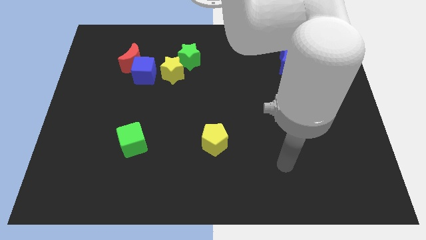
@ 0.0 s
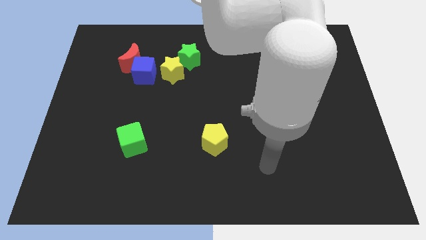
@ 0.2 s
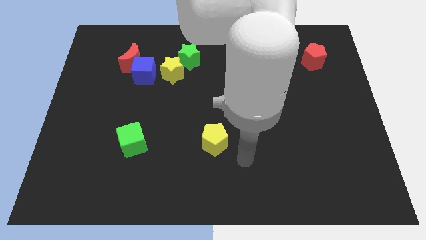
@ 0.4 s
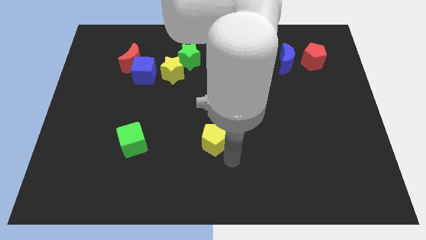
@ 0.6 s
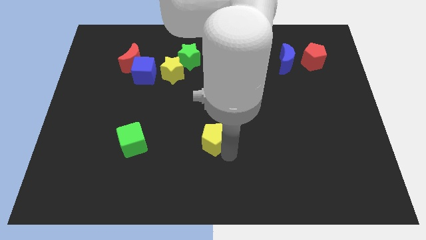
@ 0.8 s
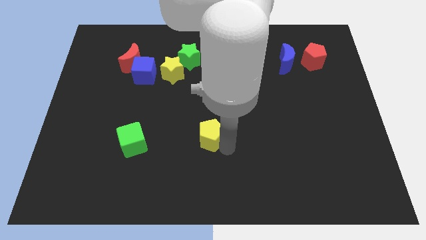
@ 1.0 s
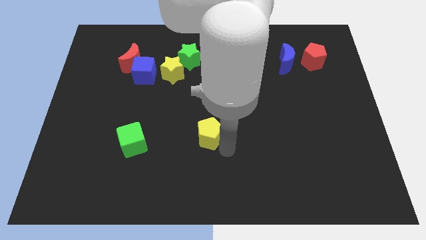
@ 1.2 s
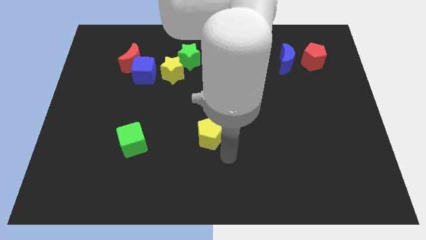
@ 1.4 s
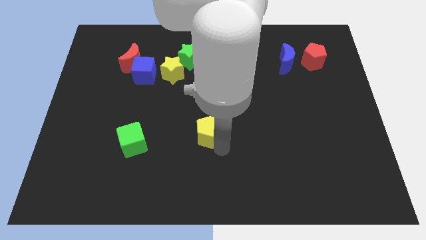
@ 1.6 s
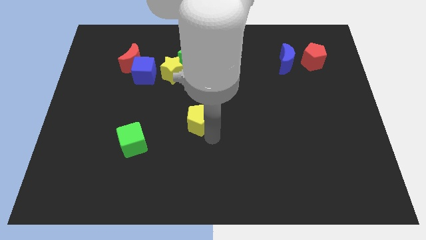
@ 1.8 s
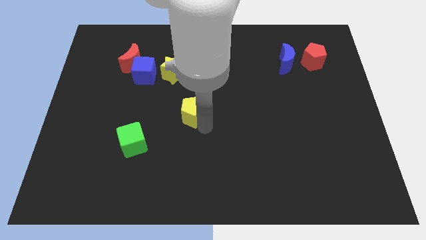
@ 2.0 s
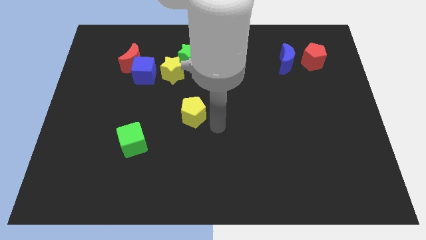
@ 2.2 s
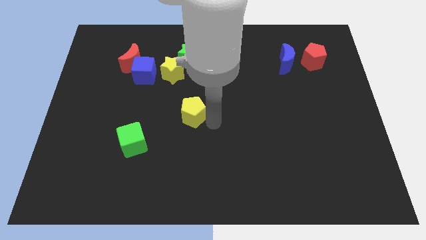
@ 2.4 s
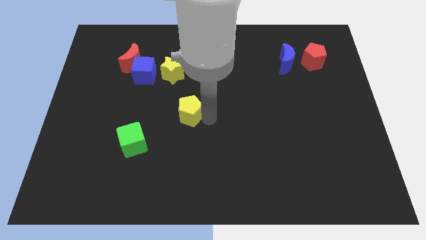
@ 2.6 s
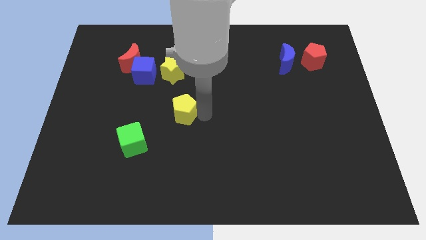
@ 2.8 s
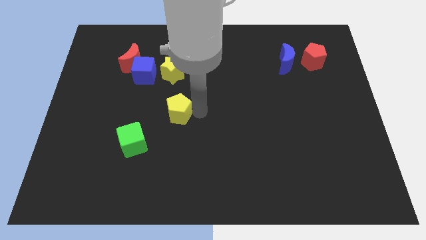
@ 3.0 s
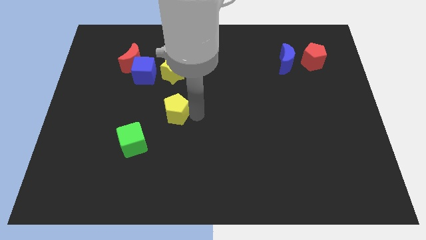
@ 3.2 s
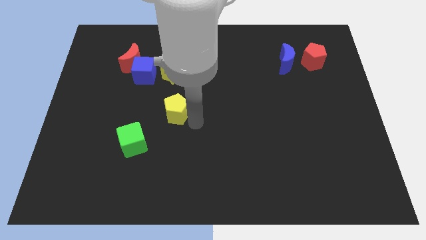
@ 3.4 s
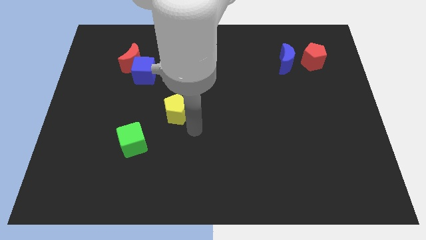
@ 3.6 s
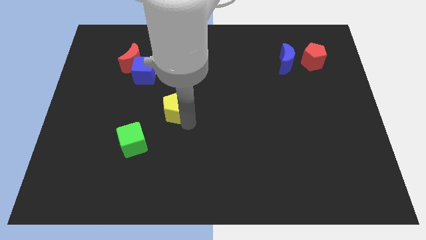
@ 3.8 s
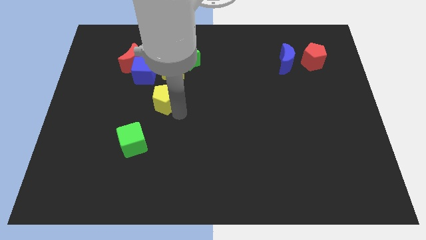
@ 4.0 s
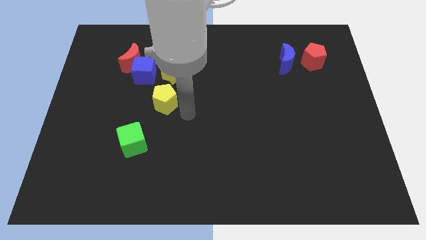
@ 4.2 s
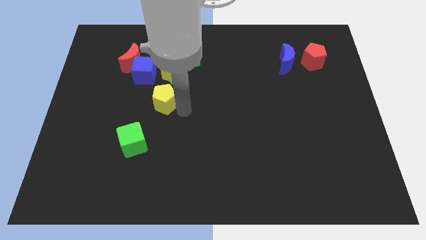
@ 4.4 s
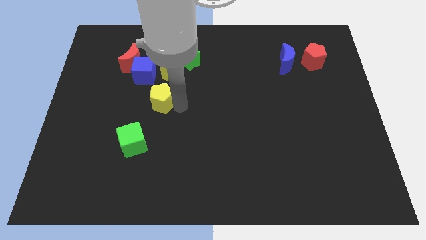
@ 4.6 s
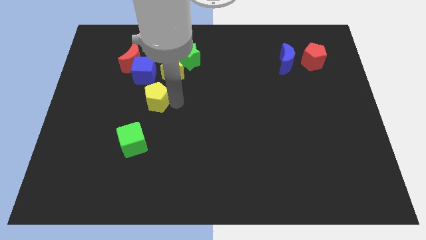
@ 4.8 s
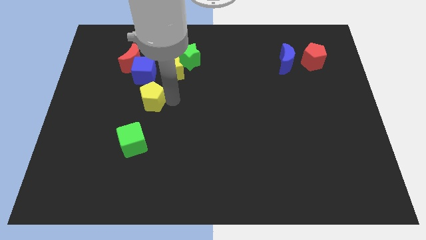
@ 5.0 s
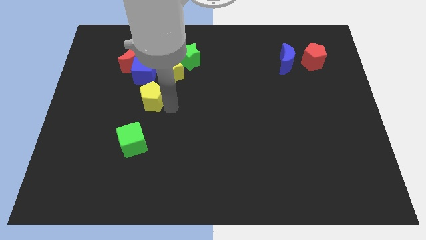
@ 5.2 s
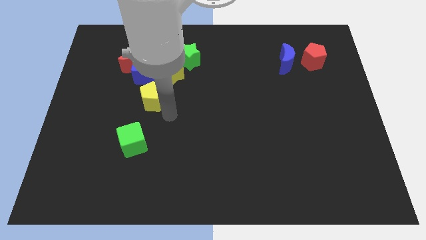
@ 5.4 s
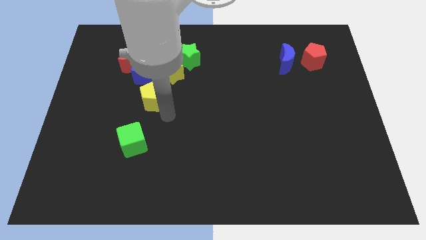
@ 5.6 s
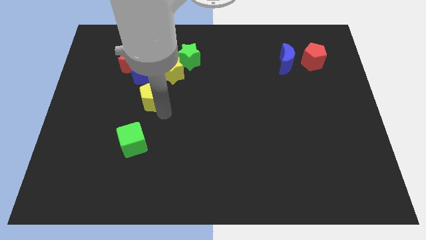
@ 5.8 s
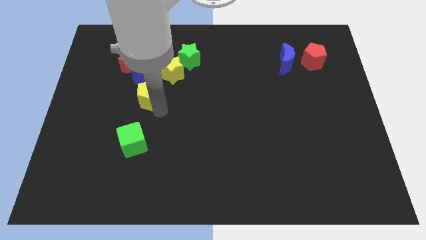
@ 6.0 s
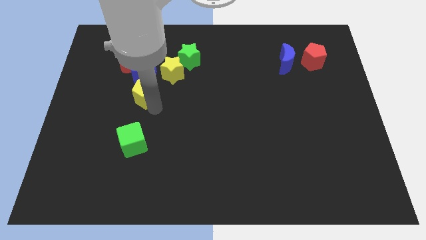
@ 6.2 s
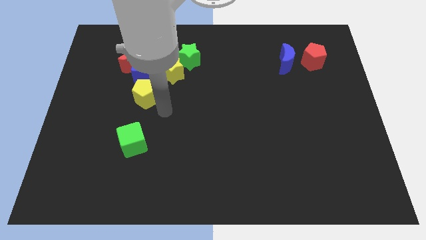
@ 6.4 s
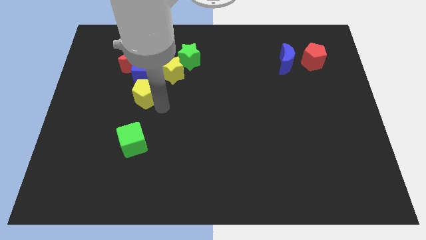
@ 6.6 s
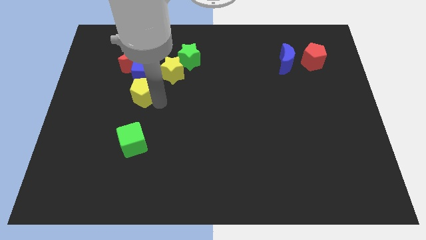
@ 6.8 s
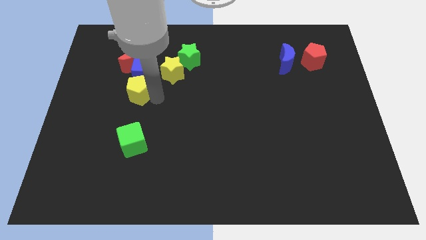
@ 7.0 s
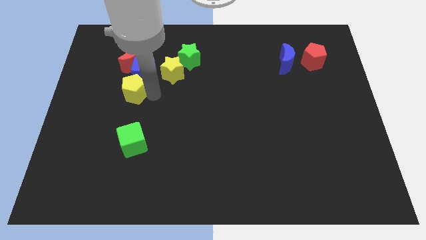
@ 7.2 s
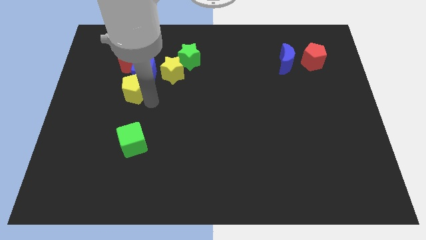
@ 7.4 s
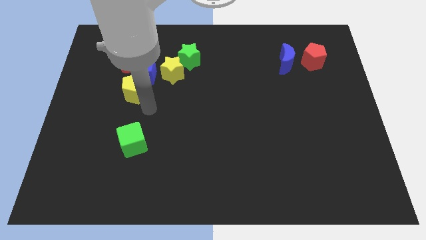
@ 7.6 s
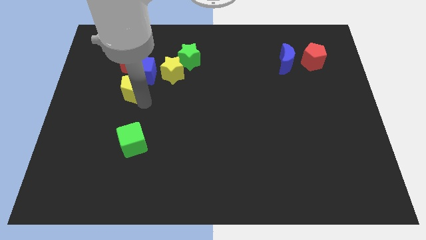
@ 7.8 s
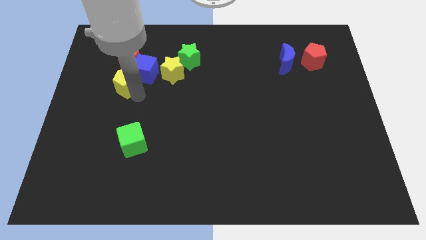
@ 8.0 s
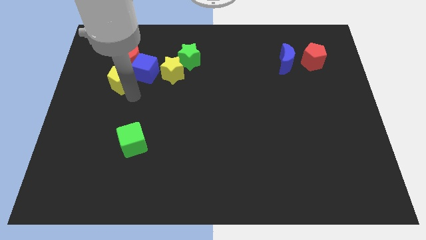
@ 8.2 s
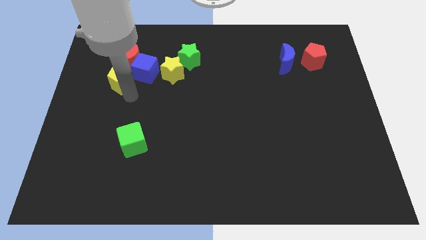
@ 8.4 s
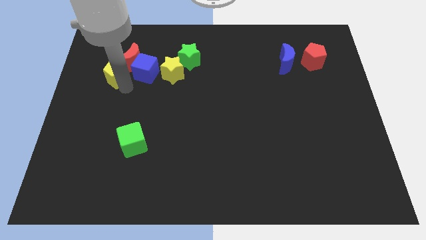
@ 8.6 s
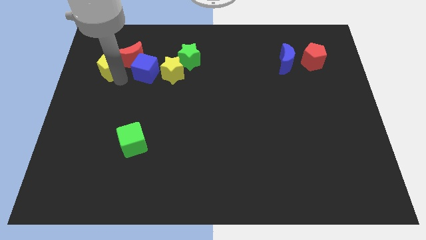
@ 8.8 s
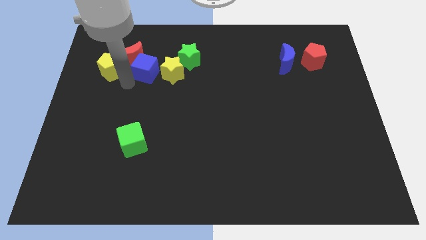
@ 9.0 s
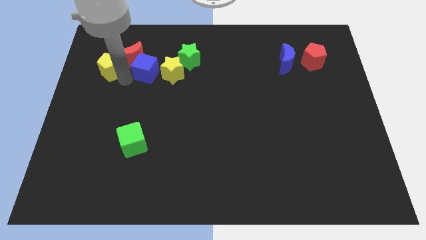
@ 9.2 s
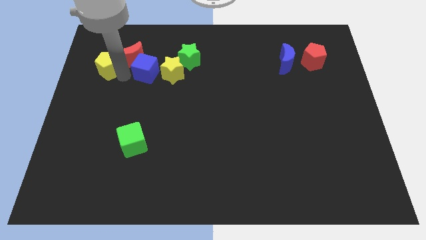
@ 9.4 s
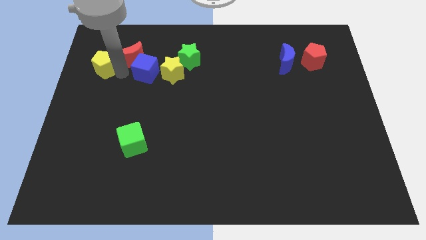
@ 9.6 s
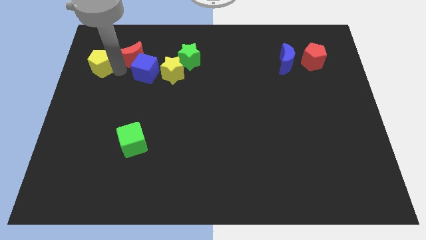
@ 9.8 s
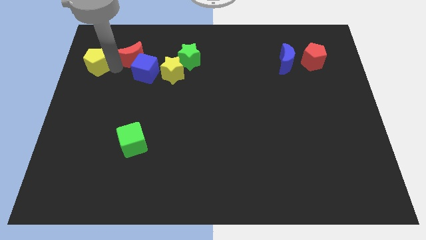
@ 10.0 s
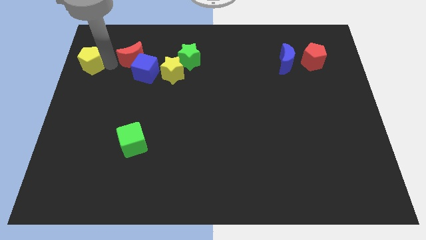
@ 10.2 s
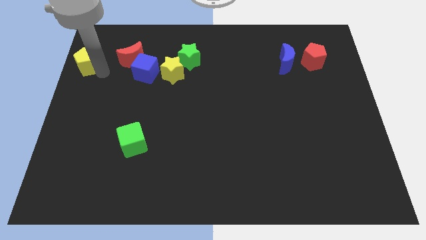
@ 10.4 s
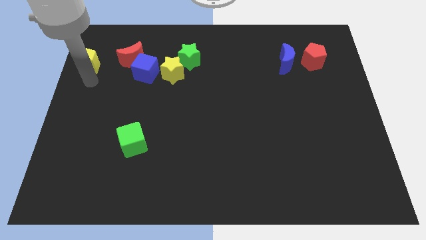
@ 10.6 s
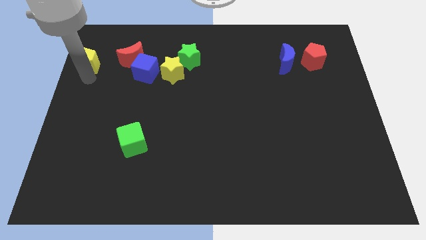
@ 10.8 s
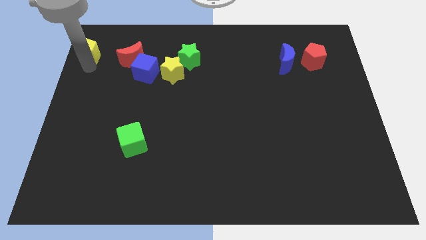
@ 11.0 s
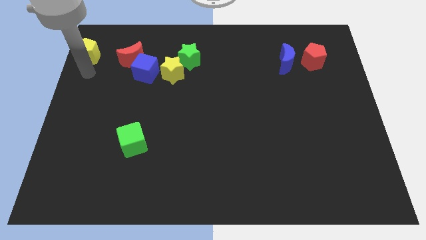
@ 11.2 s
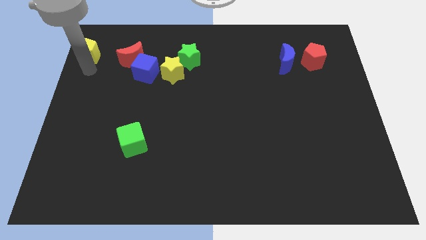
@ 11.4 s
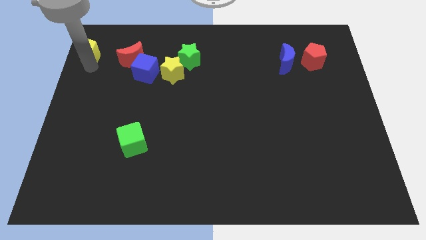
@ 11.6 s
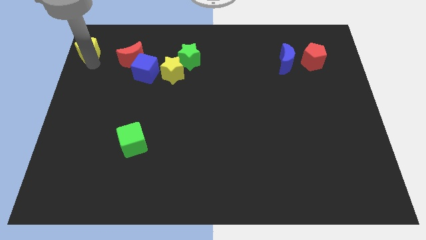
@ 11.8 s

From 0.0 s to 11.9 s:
push the yellow pentagon to the top left of the board
